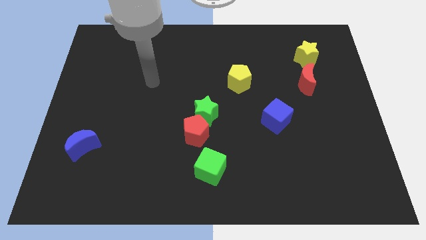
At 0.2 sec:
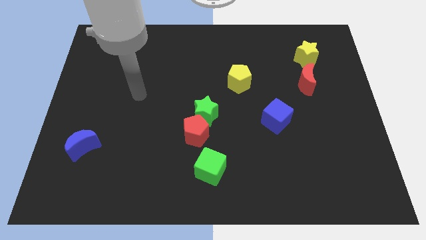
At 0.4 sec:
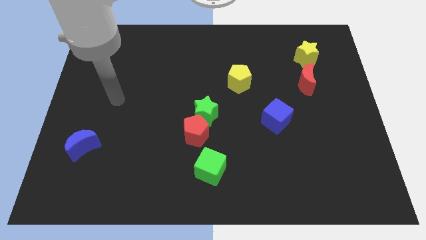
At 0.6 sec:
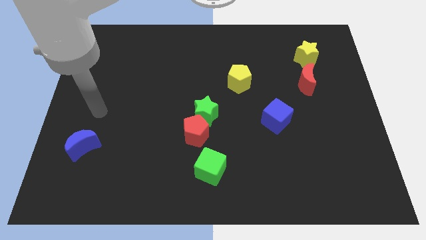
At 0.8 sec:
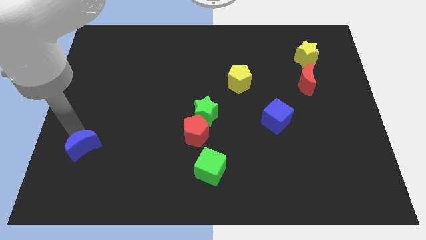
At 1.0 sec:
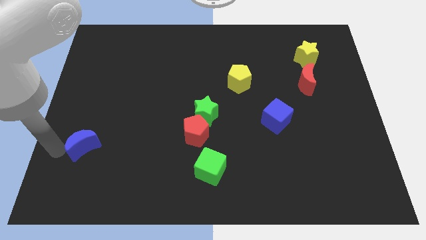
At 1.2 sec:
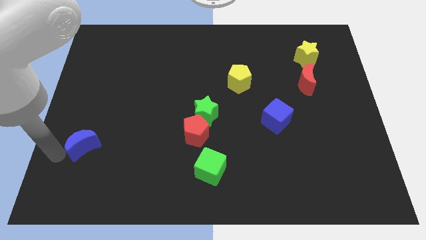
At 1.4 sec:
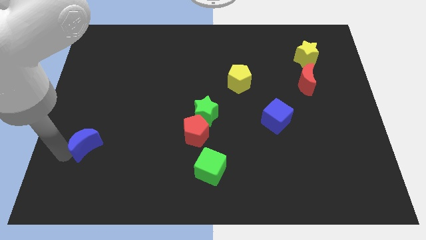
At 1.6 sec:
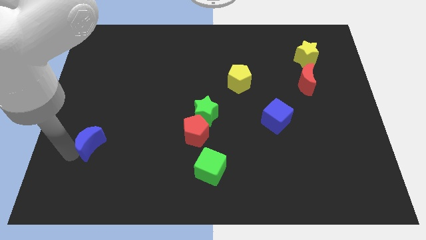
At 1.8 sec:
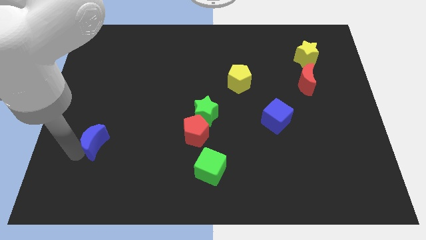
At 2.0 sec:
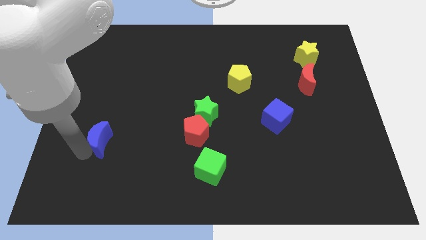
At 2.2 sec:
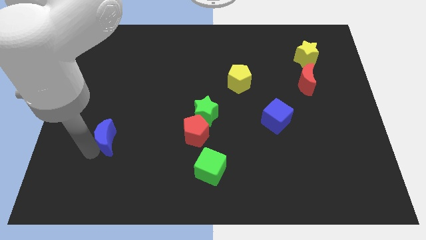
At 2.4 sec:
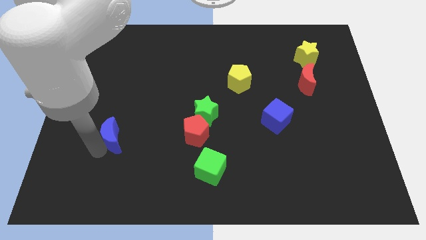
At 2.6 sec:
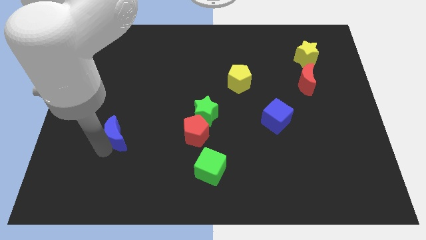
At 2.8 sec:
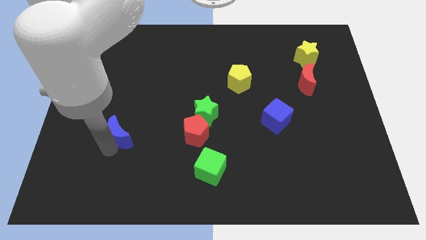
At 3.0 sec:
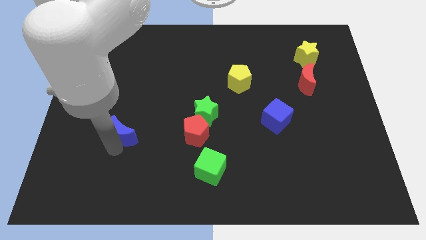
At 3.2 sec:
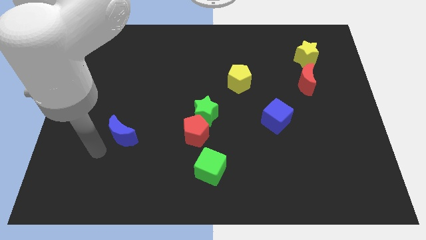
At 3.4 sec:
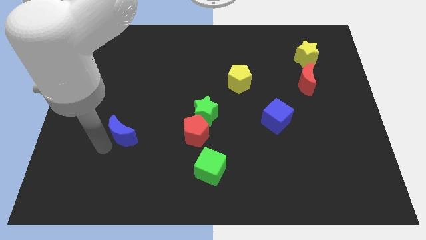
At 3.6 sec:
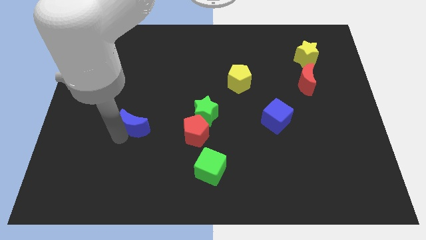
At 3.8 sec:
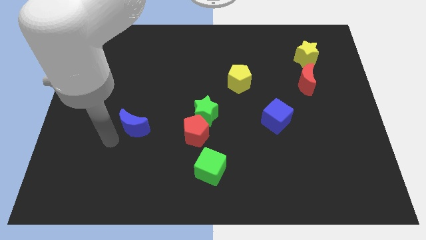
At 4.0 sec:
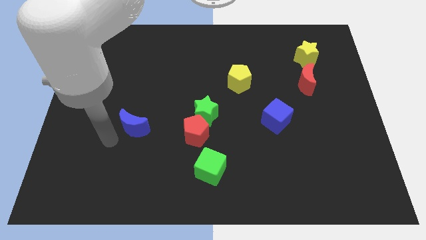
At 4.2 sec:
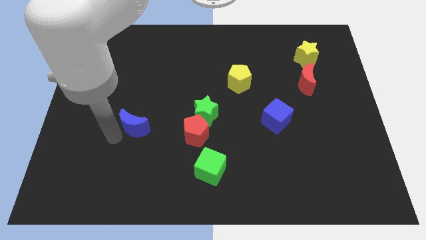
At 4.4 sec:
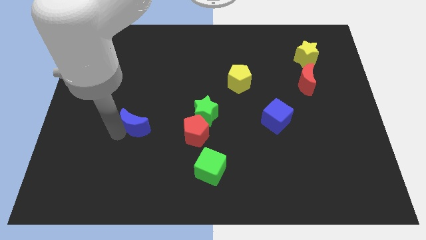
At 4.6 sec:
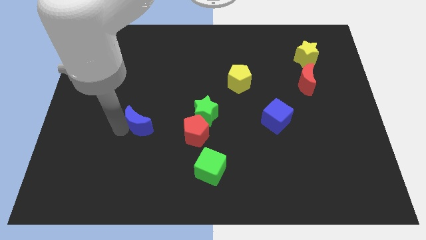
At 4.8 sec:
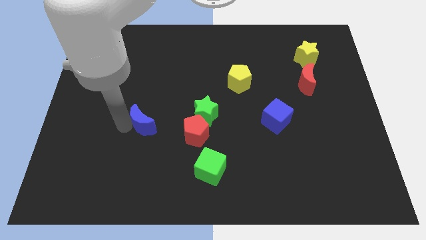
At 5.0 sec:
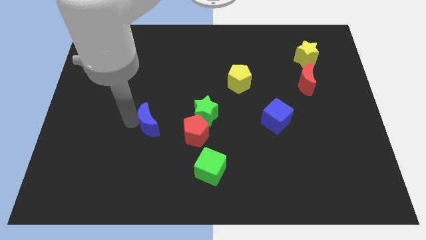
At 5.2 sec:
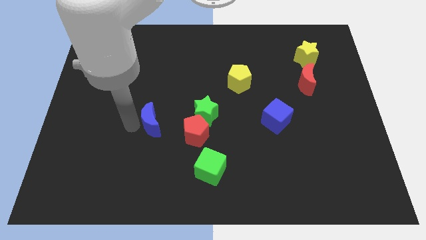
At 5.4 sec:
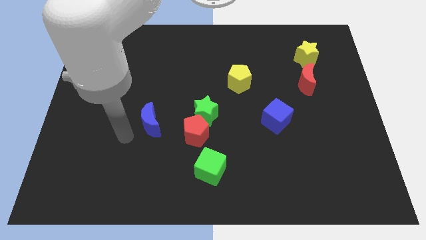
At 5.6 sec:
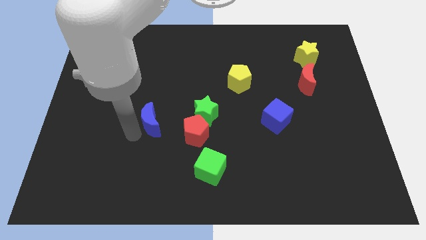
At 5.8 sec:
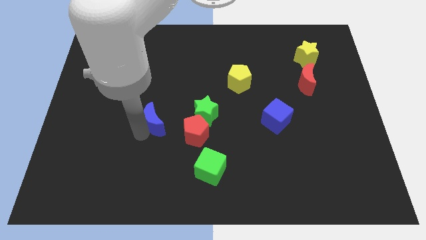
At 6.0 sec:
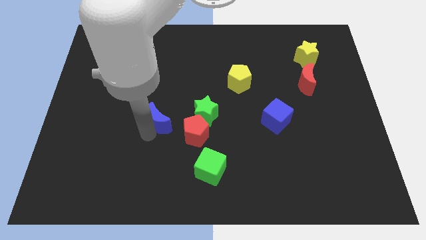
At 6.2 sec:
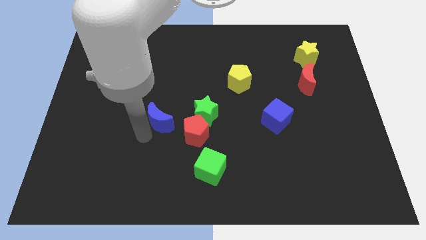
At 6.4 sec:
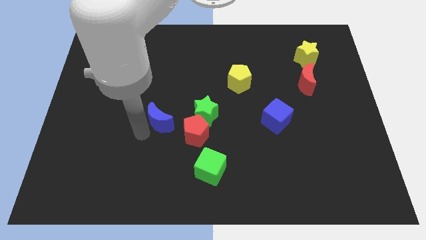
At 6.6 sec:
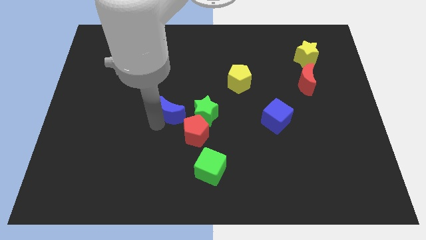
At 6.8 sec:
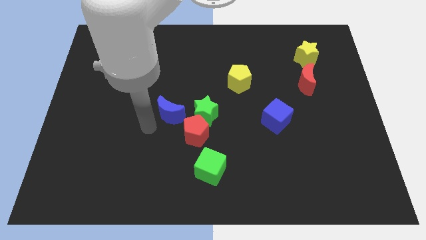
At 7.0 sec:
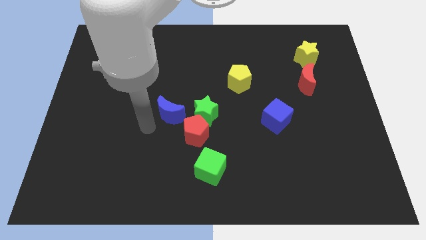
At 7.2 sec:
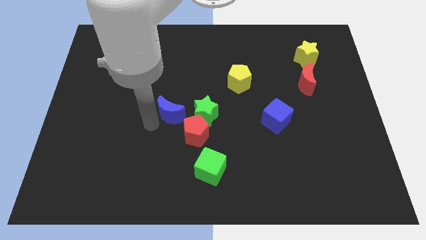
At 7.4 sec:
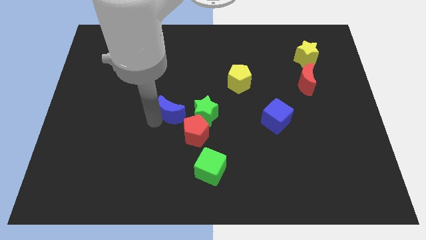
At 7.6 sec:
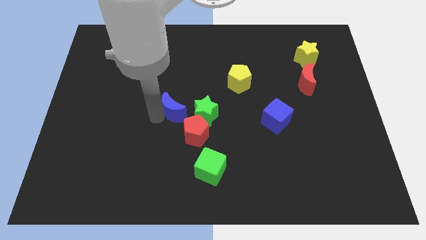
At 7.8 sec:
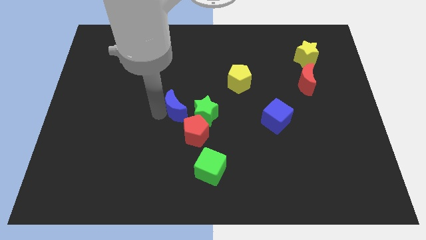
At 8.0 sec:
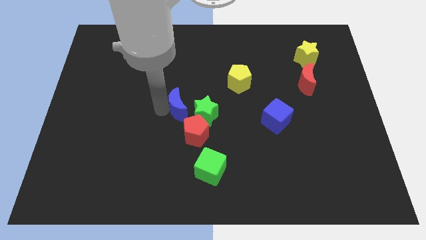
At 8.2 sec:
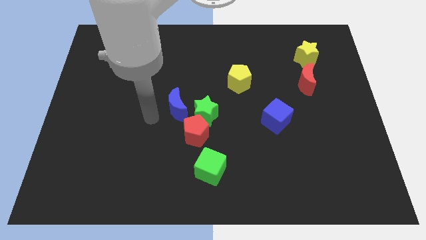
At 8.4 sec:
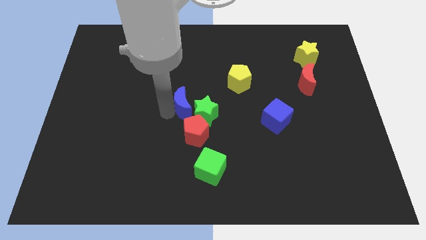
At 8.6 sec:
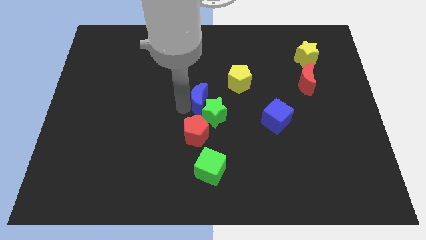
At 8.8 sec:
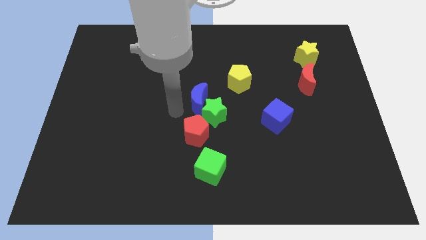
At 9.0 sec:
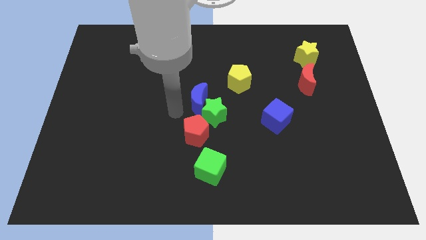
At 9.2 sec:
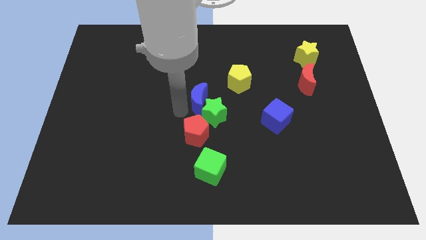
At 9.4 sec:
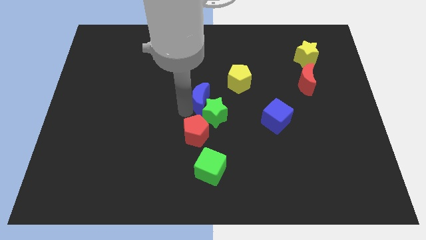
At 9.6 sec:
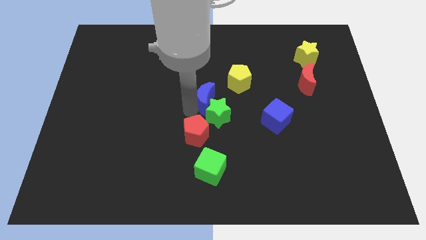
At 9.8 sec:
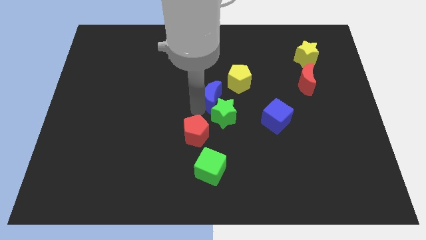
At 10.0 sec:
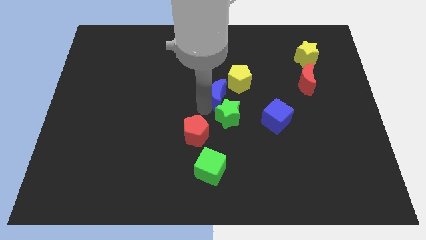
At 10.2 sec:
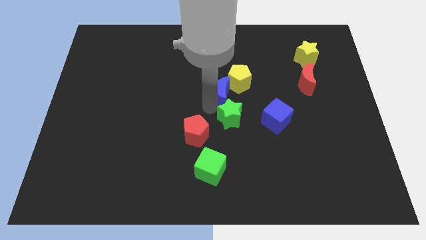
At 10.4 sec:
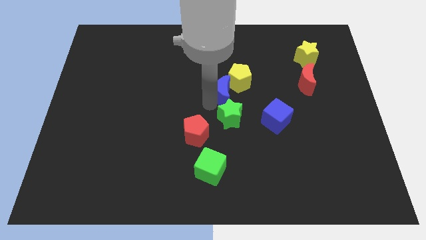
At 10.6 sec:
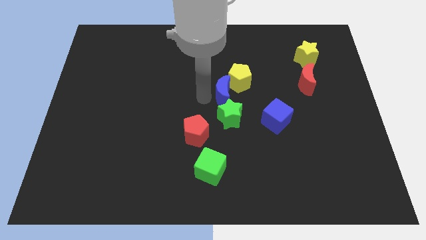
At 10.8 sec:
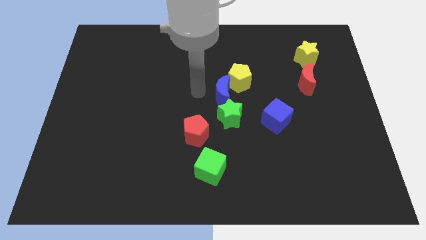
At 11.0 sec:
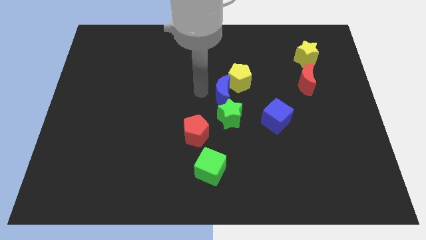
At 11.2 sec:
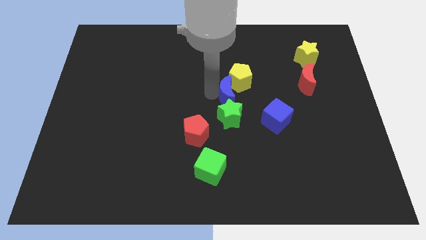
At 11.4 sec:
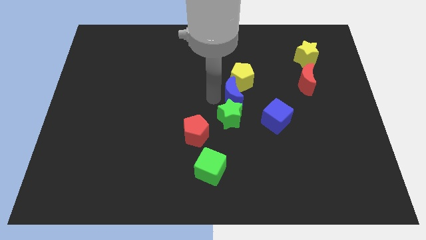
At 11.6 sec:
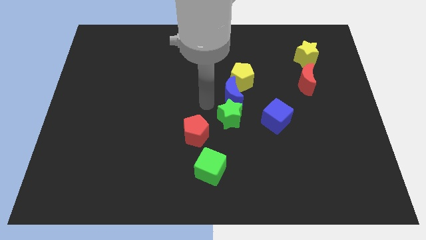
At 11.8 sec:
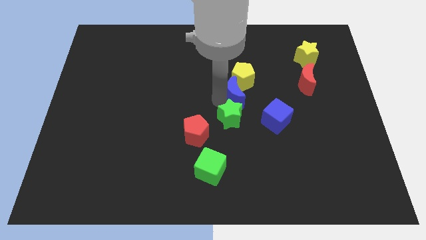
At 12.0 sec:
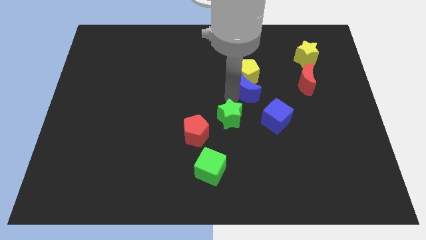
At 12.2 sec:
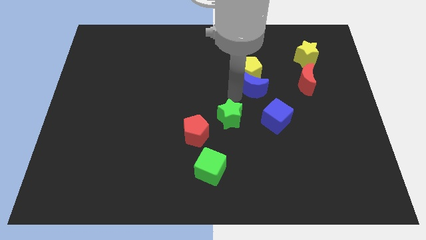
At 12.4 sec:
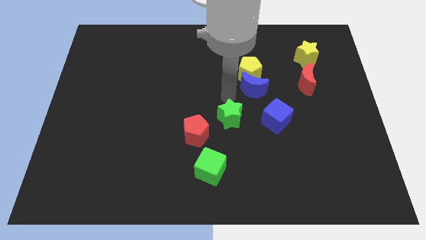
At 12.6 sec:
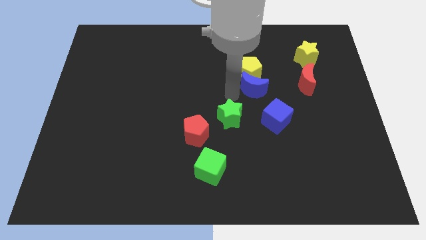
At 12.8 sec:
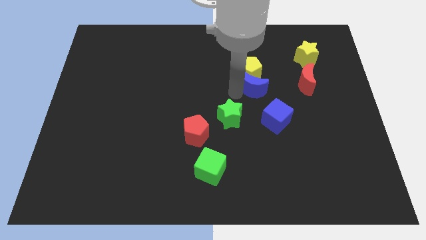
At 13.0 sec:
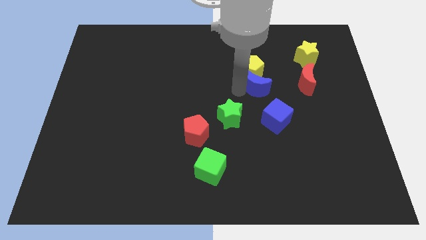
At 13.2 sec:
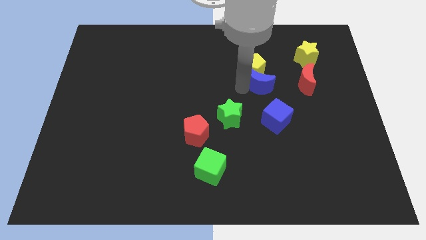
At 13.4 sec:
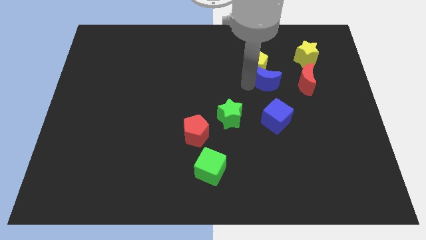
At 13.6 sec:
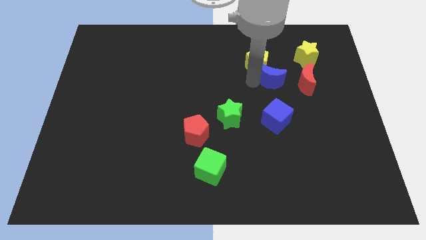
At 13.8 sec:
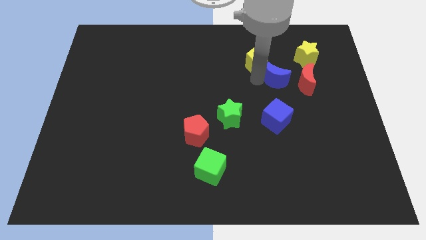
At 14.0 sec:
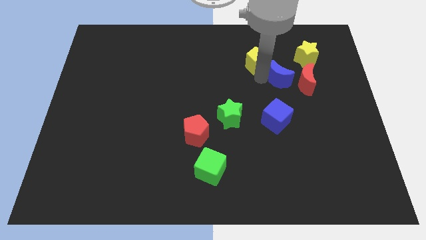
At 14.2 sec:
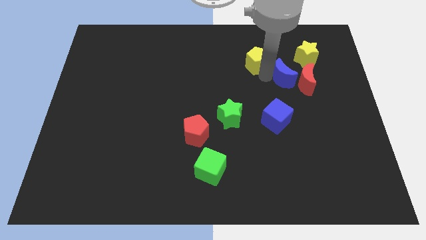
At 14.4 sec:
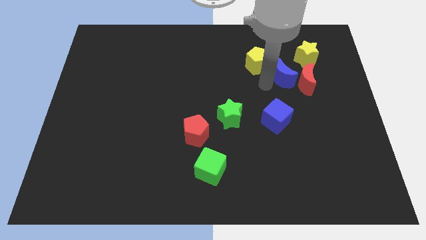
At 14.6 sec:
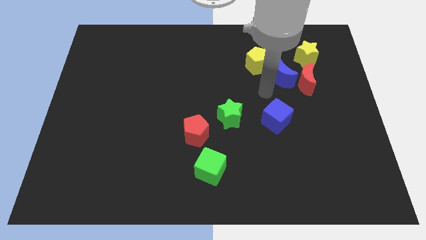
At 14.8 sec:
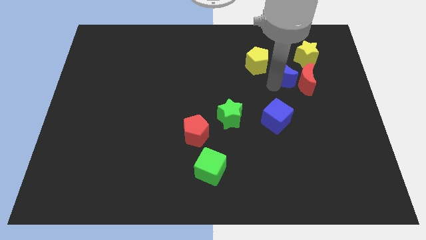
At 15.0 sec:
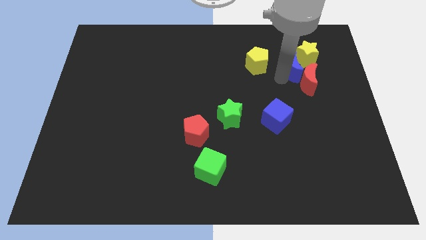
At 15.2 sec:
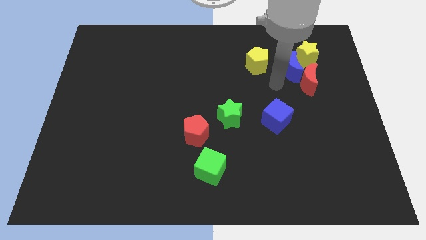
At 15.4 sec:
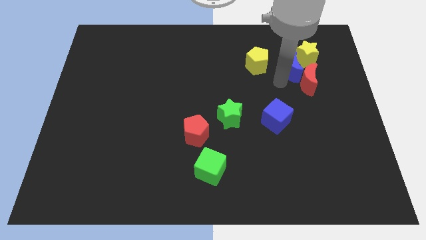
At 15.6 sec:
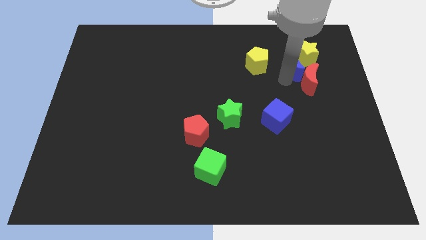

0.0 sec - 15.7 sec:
push the blue moon next to the yellow star
